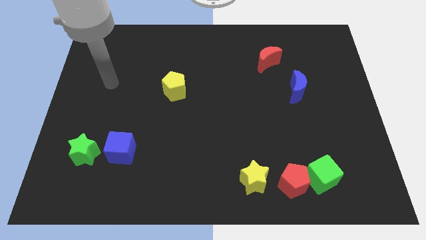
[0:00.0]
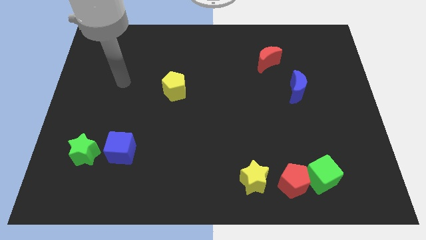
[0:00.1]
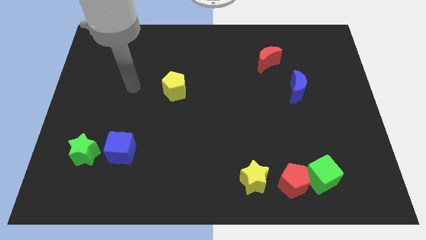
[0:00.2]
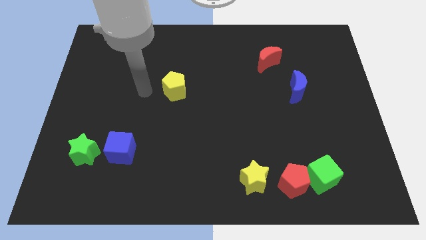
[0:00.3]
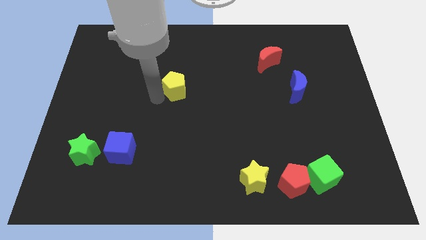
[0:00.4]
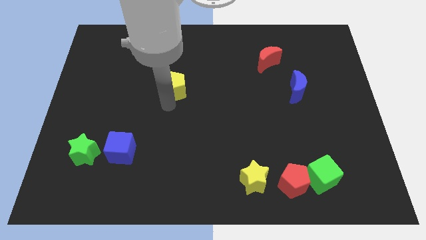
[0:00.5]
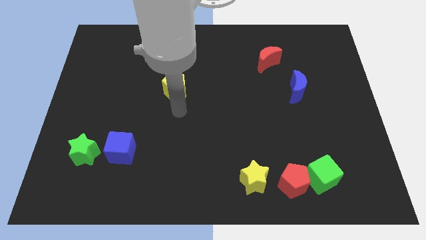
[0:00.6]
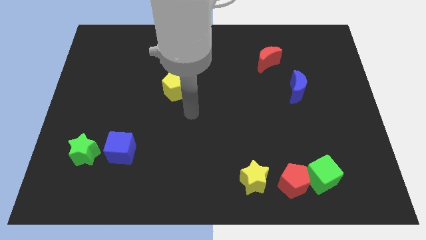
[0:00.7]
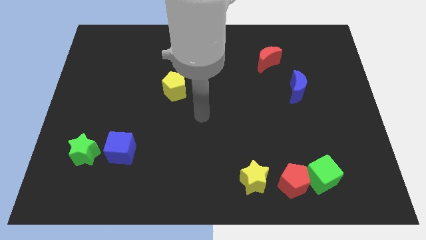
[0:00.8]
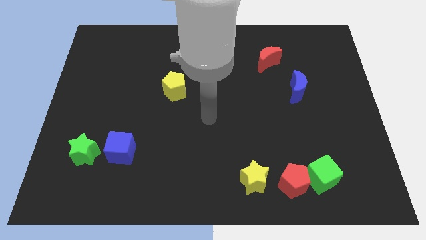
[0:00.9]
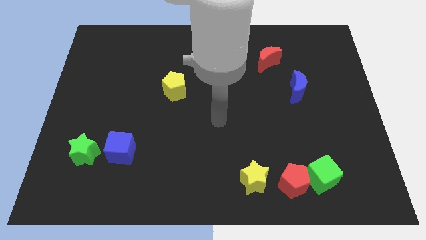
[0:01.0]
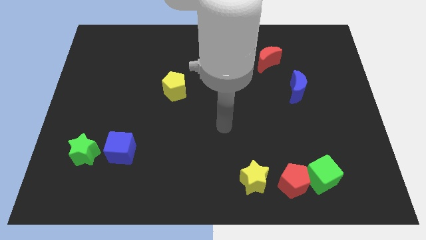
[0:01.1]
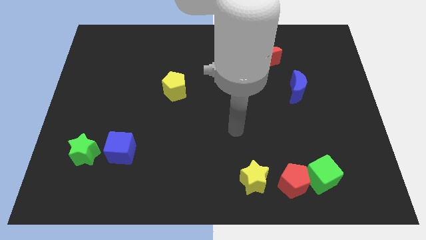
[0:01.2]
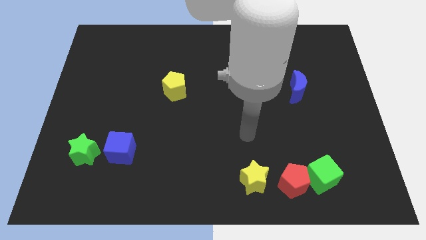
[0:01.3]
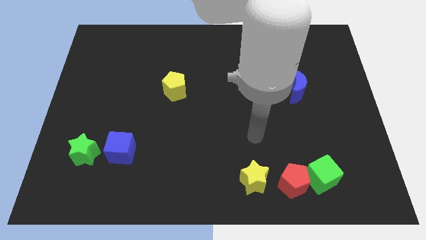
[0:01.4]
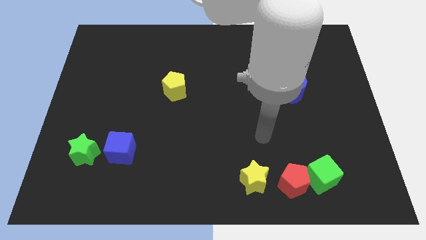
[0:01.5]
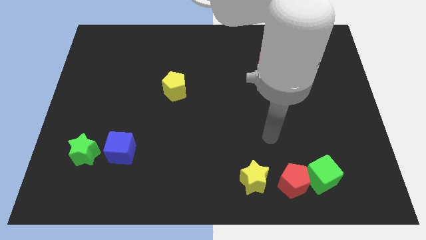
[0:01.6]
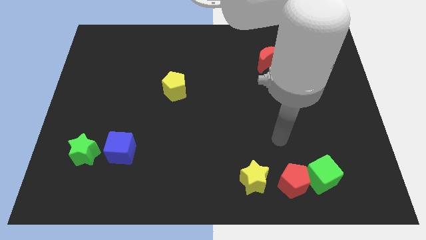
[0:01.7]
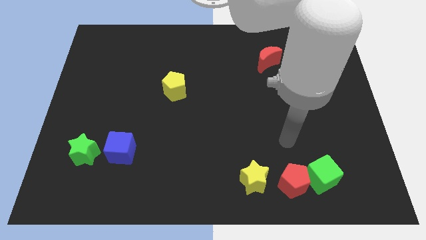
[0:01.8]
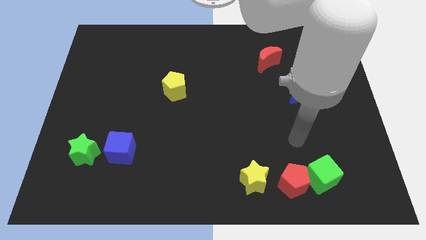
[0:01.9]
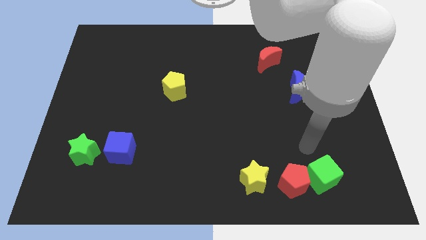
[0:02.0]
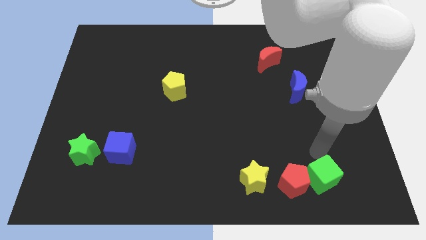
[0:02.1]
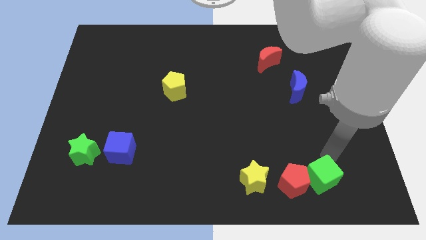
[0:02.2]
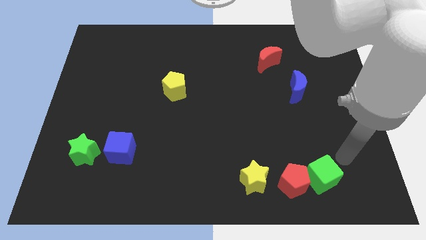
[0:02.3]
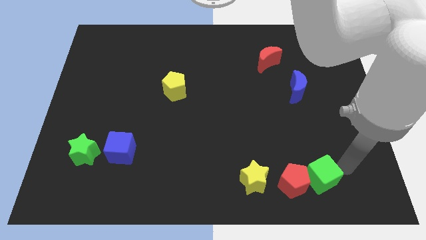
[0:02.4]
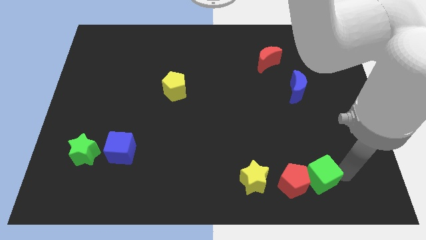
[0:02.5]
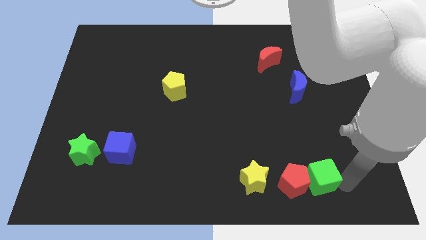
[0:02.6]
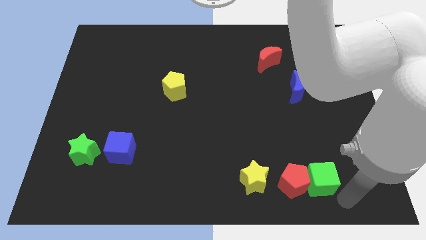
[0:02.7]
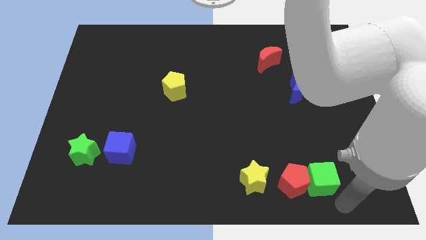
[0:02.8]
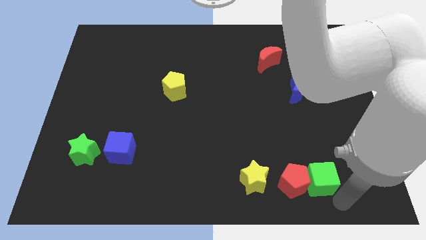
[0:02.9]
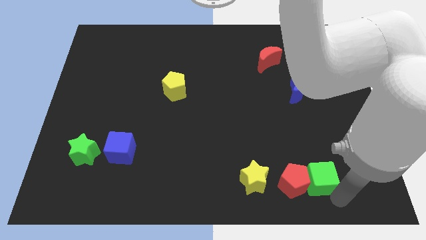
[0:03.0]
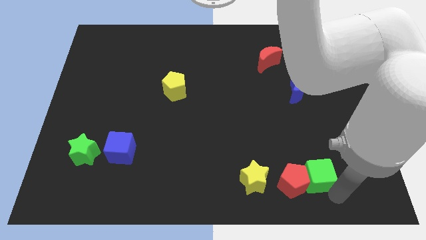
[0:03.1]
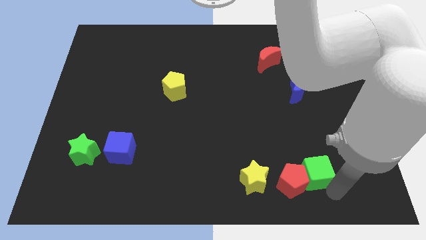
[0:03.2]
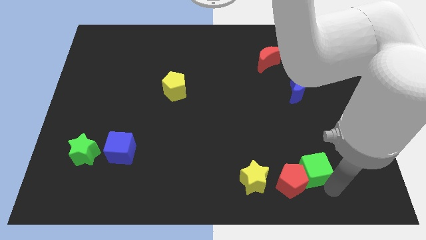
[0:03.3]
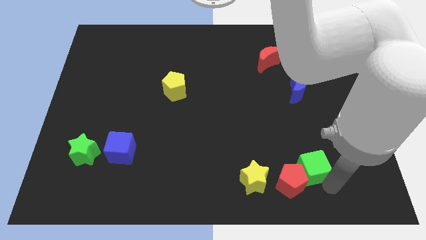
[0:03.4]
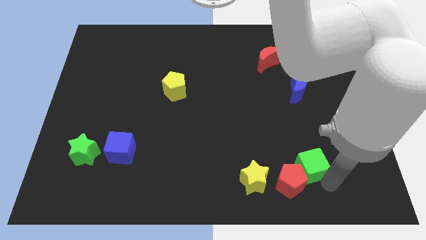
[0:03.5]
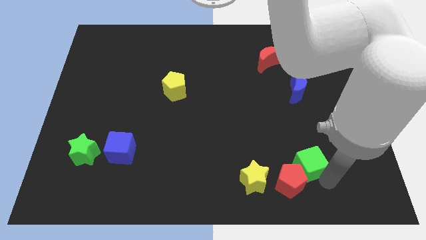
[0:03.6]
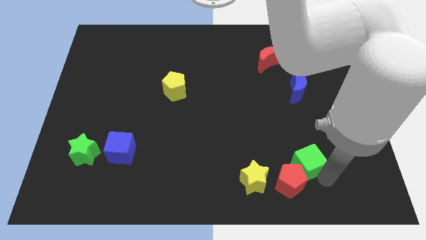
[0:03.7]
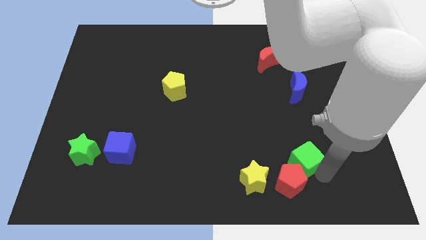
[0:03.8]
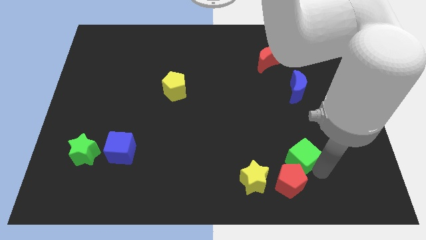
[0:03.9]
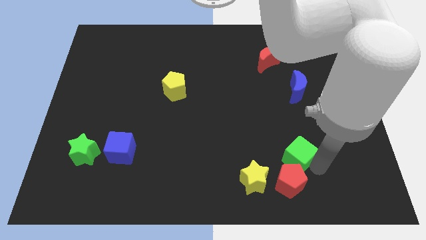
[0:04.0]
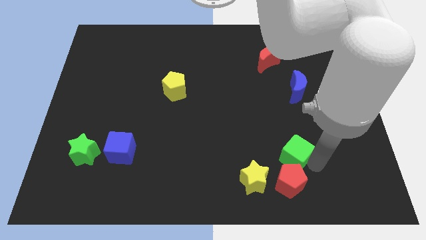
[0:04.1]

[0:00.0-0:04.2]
push the green cube slightly up and then to the left

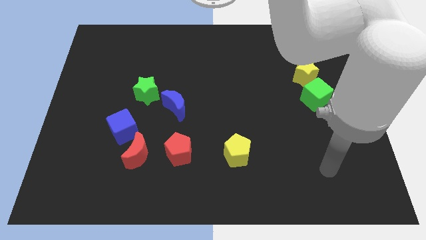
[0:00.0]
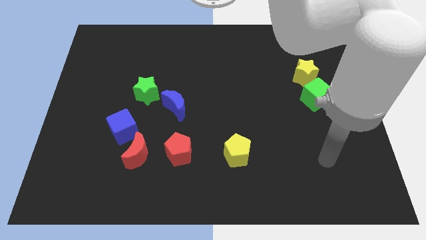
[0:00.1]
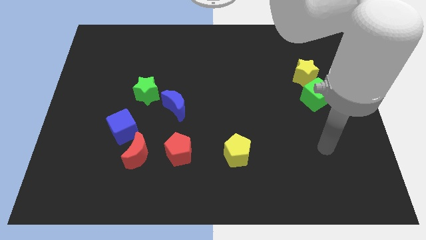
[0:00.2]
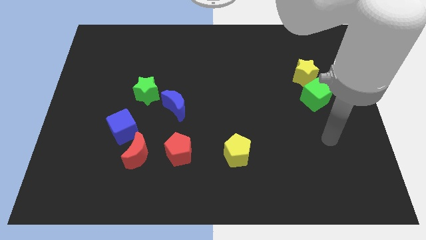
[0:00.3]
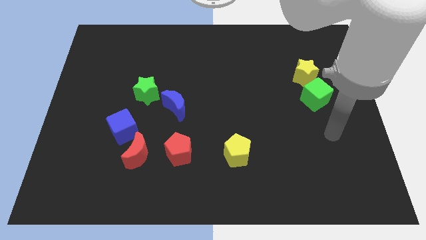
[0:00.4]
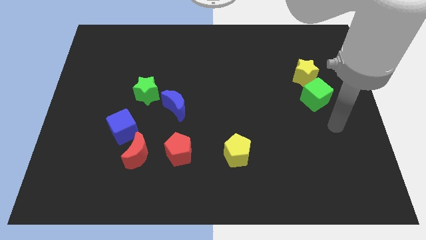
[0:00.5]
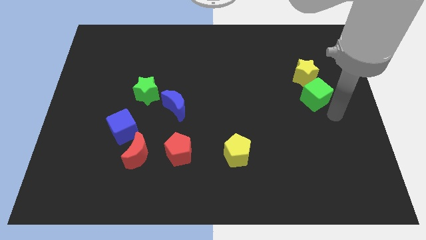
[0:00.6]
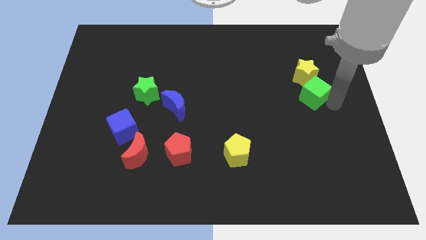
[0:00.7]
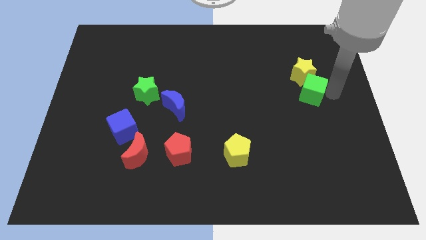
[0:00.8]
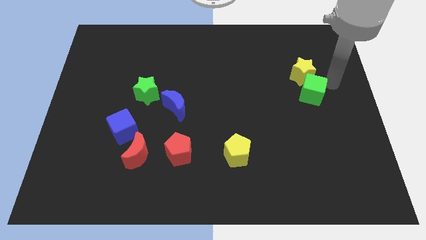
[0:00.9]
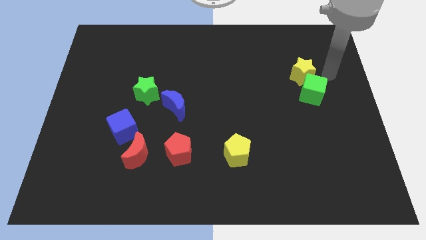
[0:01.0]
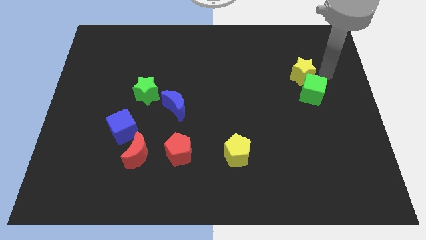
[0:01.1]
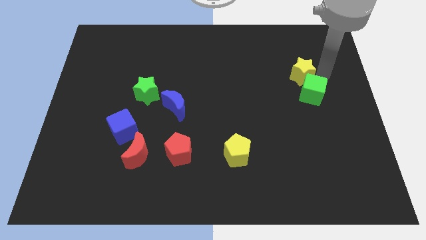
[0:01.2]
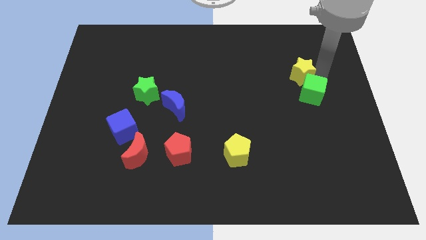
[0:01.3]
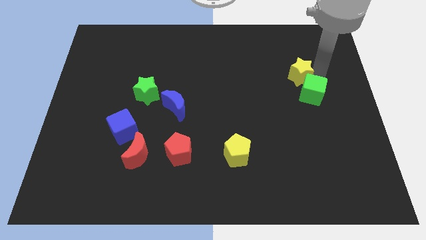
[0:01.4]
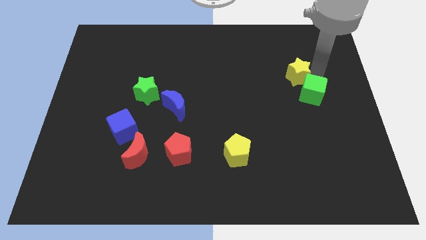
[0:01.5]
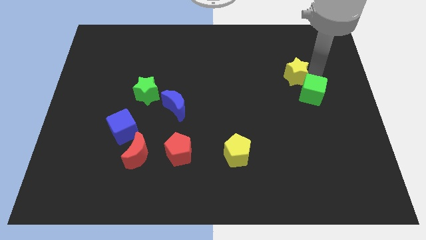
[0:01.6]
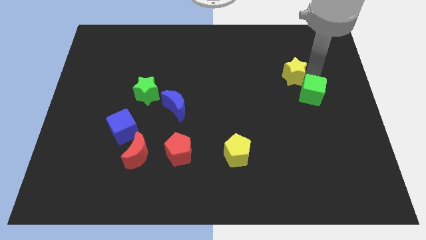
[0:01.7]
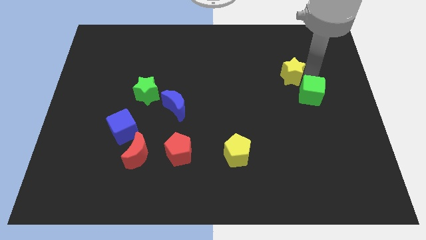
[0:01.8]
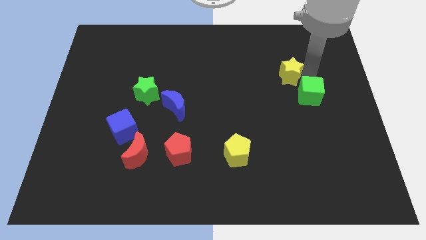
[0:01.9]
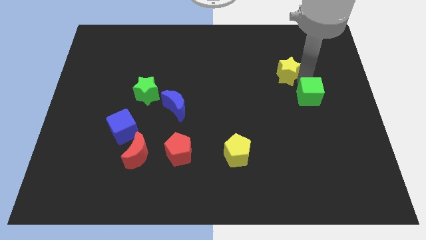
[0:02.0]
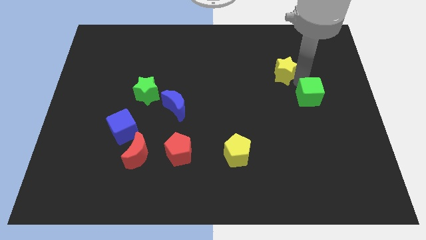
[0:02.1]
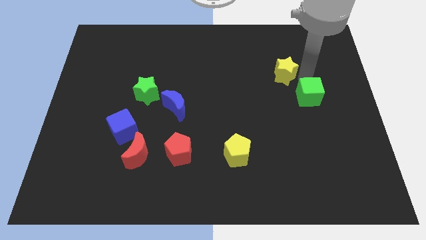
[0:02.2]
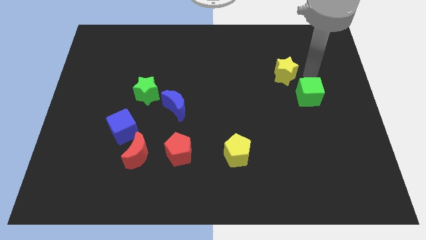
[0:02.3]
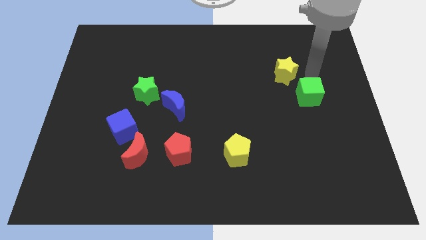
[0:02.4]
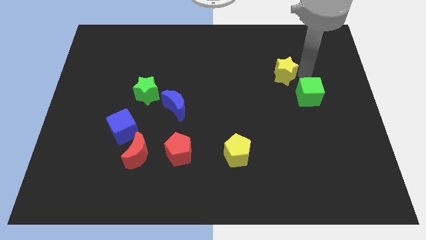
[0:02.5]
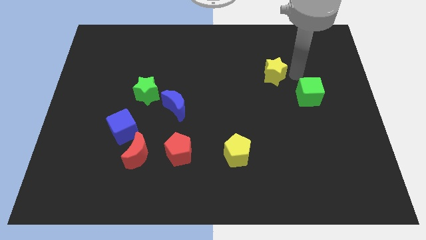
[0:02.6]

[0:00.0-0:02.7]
slide the yellow star slightly to the left

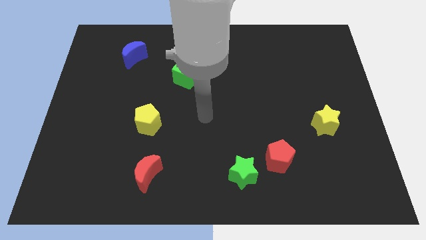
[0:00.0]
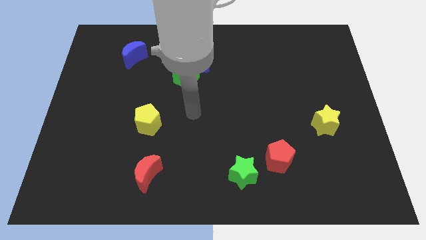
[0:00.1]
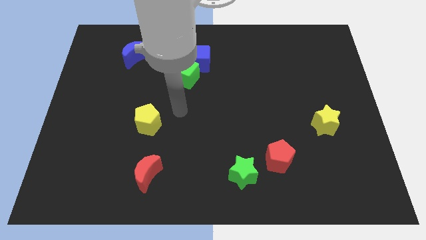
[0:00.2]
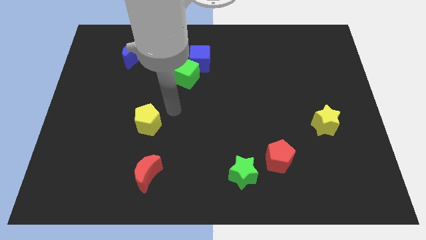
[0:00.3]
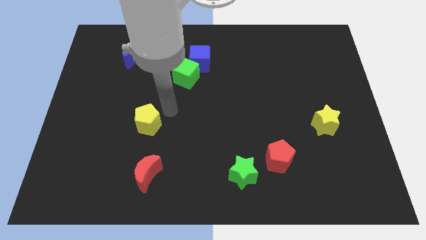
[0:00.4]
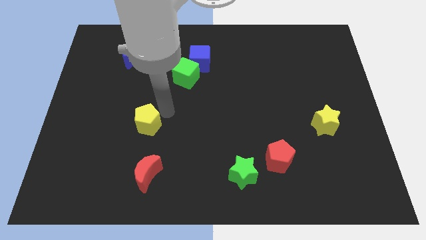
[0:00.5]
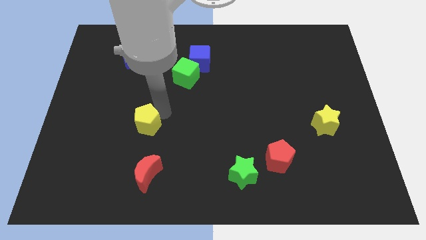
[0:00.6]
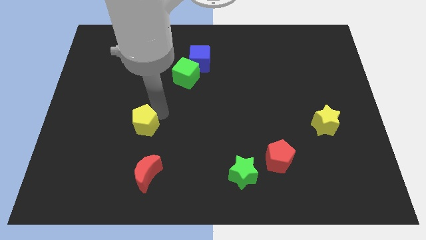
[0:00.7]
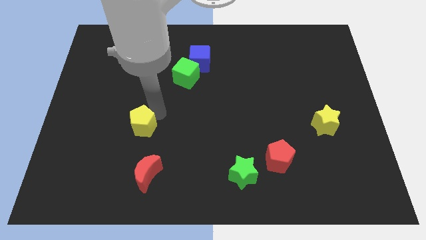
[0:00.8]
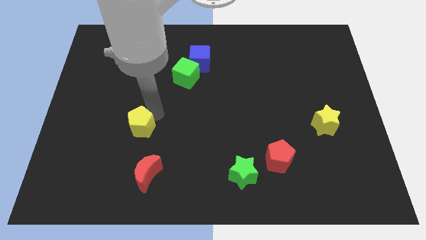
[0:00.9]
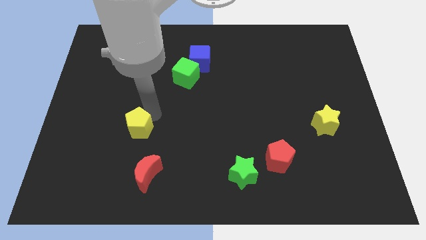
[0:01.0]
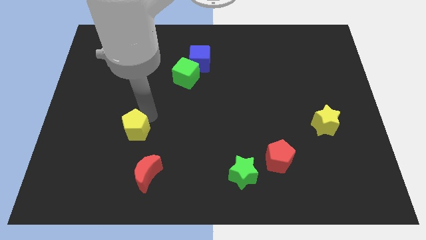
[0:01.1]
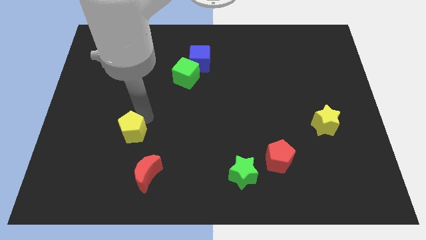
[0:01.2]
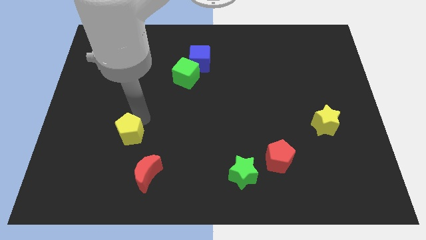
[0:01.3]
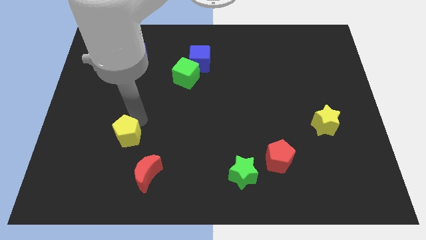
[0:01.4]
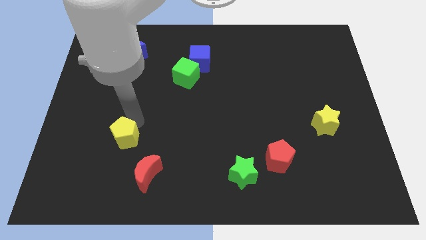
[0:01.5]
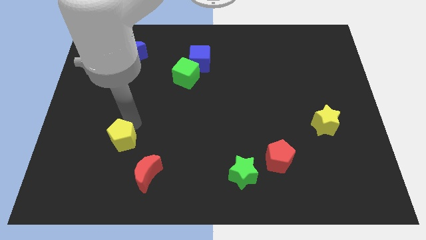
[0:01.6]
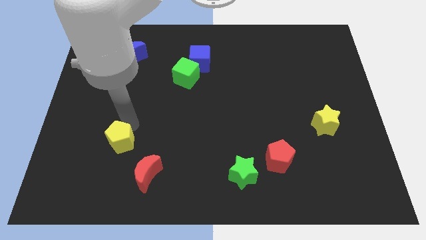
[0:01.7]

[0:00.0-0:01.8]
slightly push the yellow pentagon diagonally down and left
